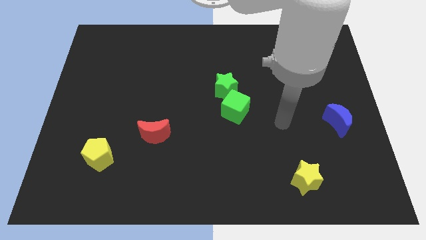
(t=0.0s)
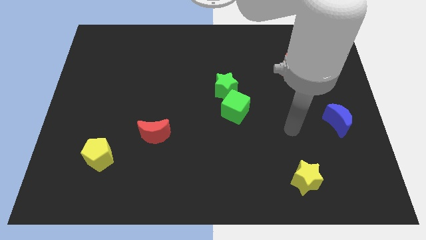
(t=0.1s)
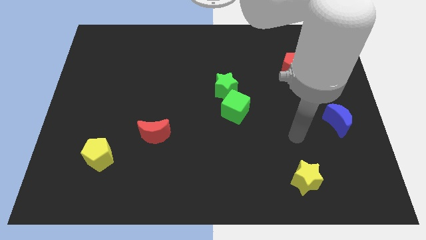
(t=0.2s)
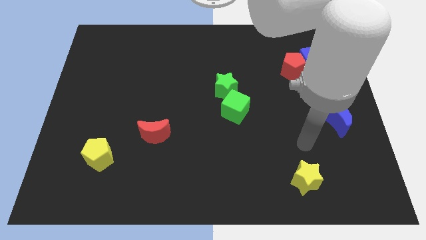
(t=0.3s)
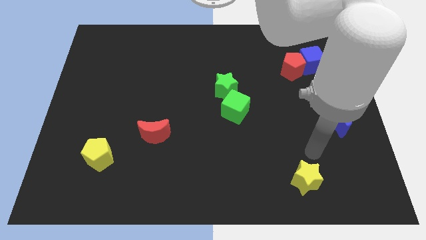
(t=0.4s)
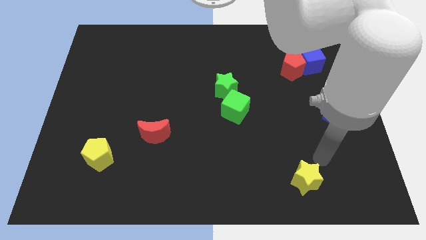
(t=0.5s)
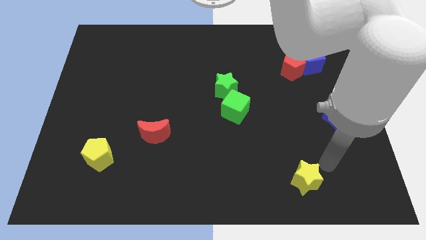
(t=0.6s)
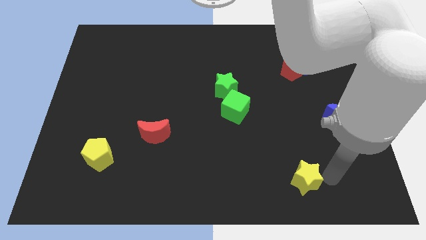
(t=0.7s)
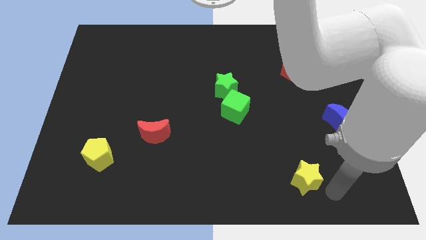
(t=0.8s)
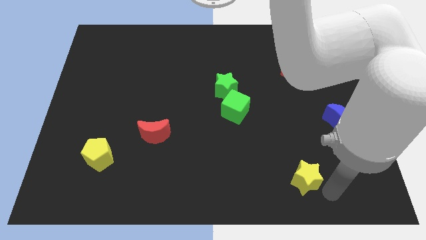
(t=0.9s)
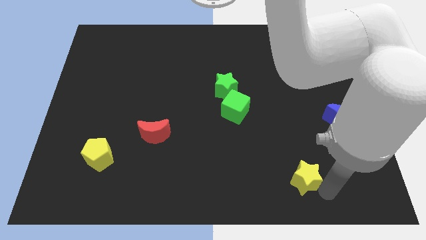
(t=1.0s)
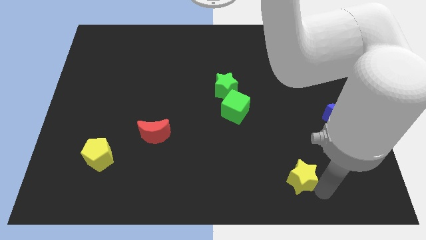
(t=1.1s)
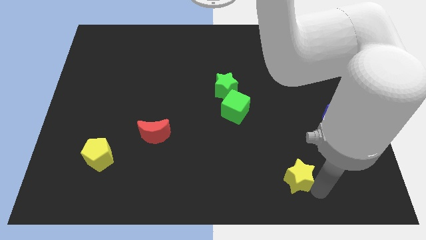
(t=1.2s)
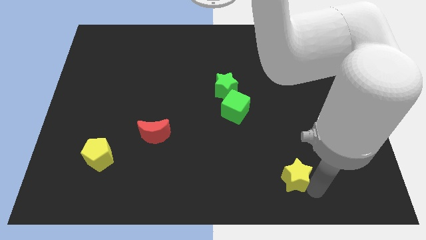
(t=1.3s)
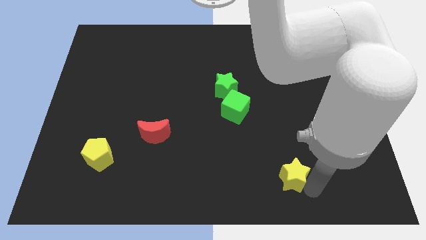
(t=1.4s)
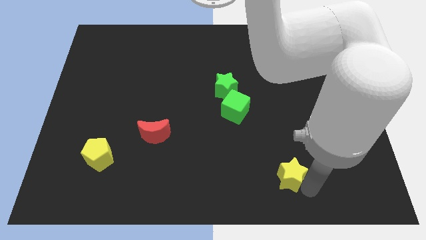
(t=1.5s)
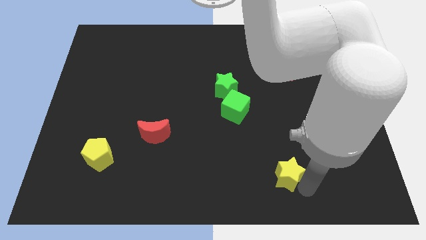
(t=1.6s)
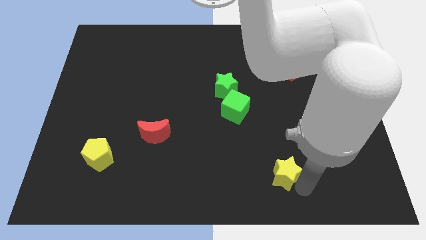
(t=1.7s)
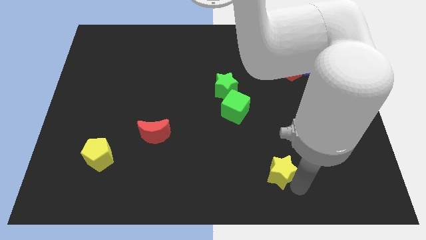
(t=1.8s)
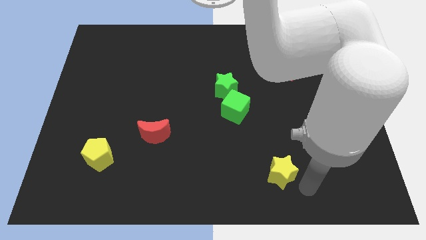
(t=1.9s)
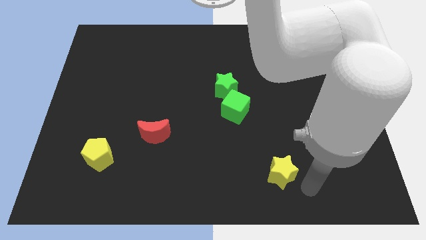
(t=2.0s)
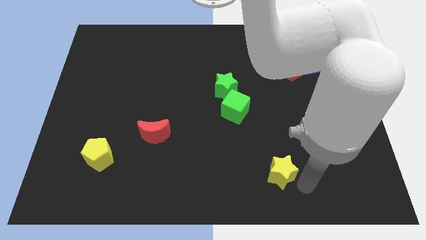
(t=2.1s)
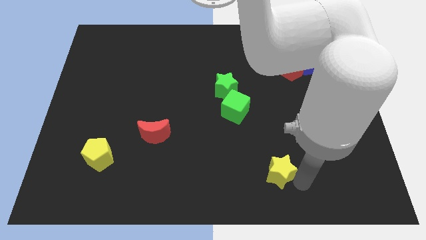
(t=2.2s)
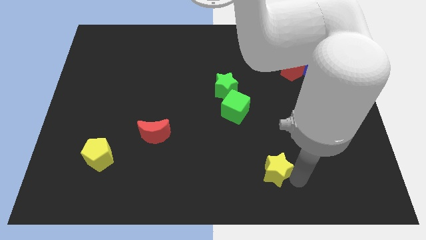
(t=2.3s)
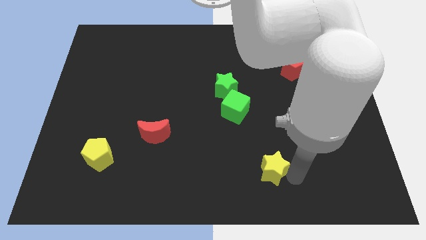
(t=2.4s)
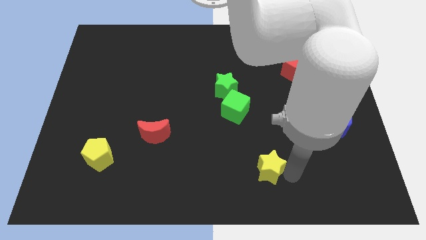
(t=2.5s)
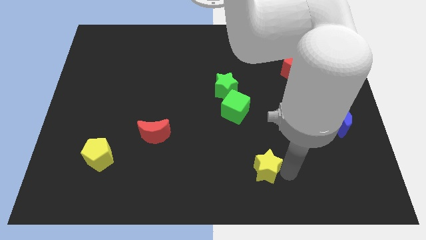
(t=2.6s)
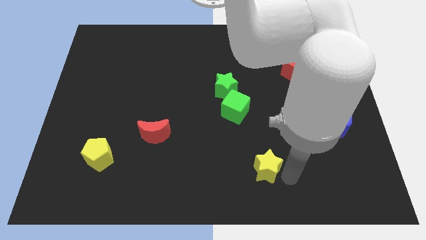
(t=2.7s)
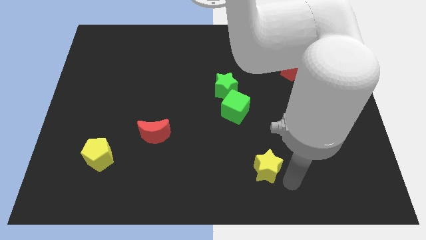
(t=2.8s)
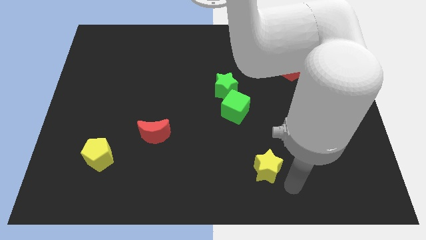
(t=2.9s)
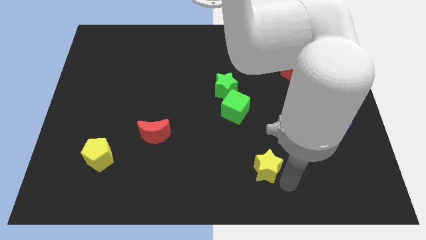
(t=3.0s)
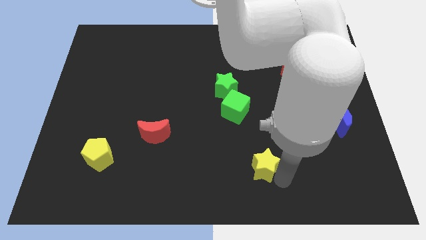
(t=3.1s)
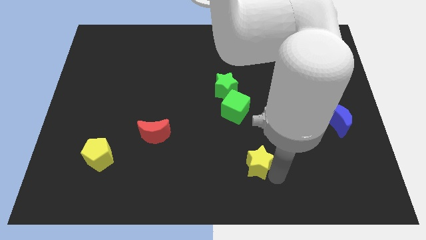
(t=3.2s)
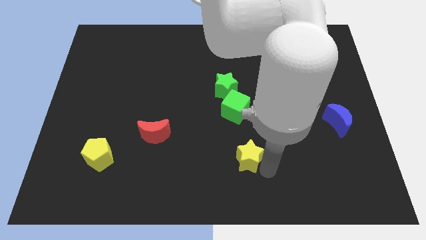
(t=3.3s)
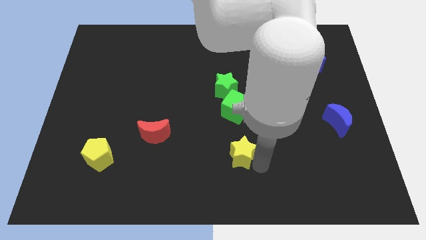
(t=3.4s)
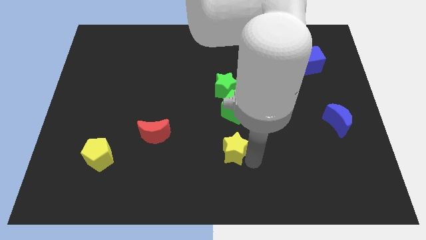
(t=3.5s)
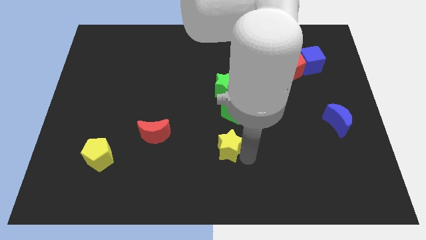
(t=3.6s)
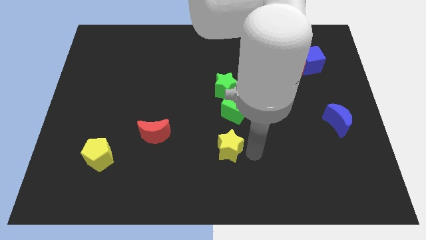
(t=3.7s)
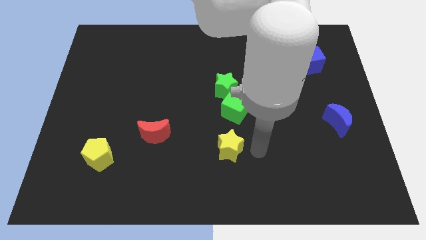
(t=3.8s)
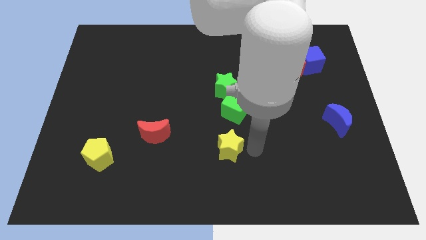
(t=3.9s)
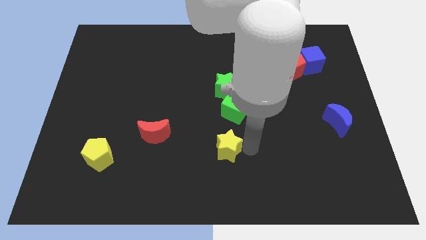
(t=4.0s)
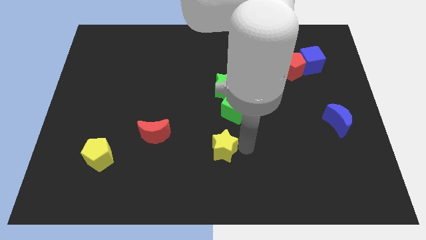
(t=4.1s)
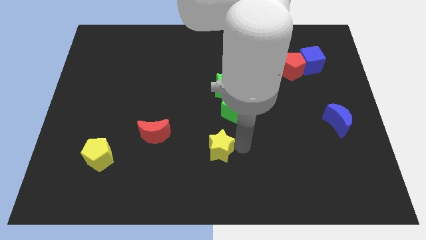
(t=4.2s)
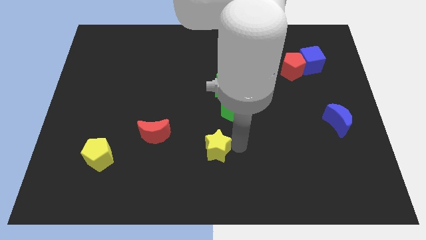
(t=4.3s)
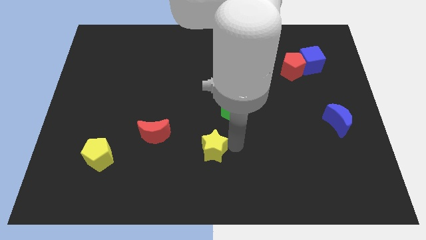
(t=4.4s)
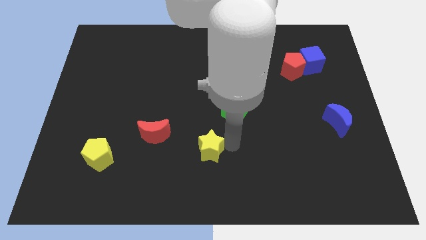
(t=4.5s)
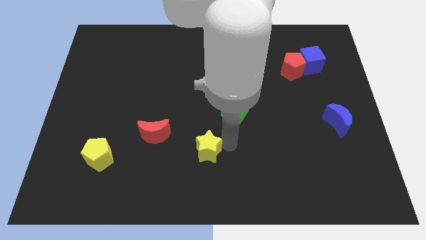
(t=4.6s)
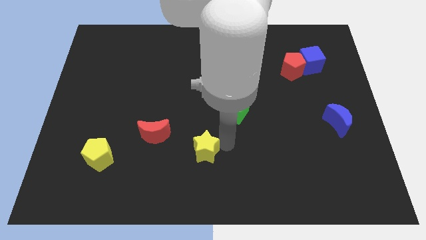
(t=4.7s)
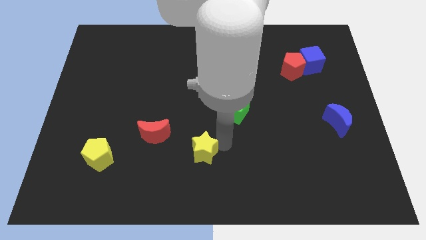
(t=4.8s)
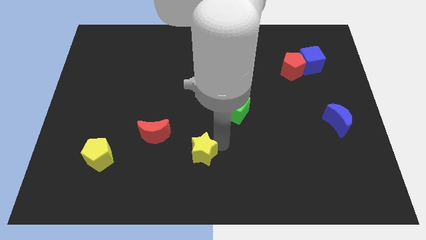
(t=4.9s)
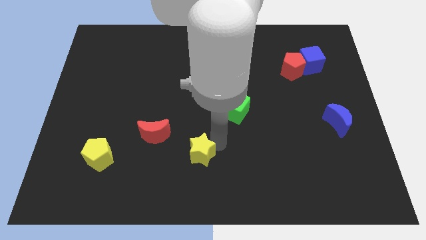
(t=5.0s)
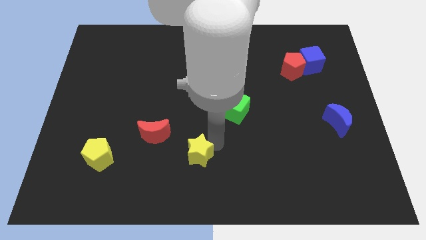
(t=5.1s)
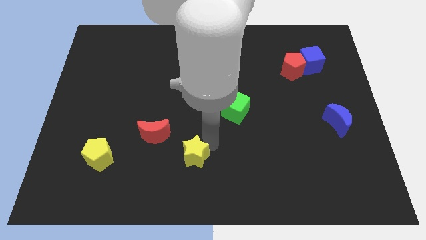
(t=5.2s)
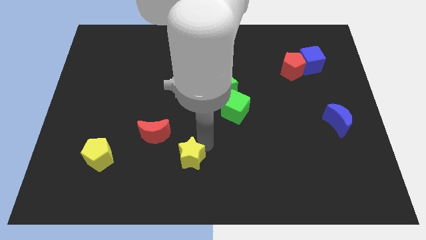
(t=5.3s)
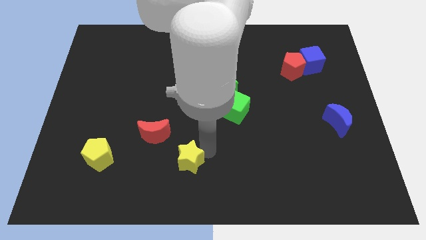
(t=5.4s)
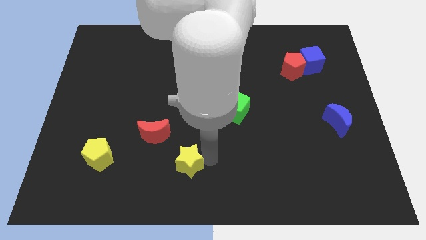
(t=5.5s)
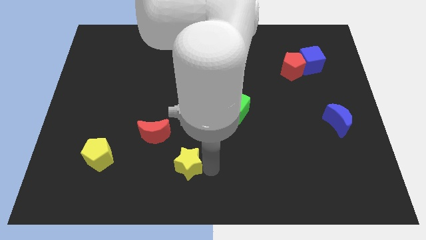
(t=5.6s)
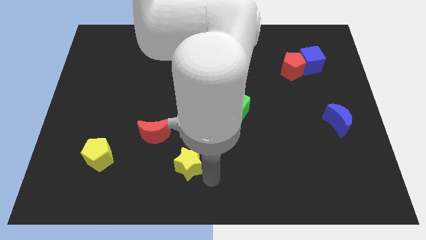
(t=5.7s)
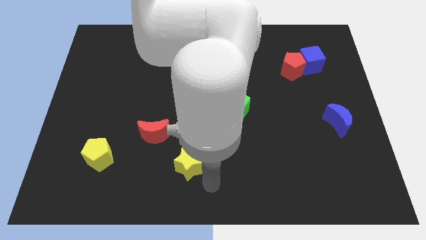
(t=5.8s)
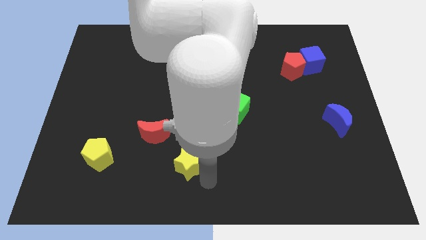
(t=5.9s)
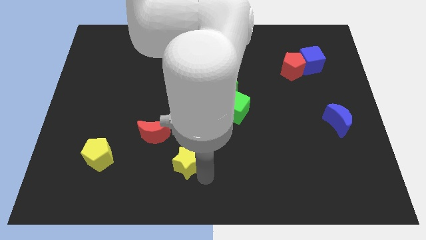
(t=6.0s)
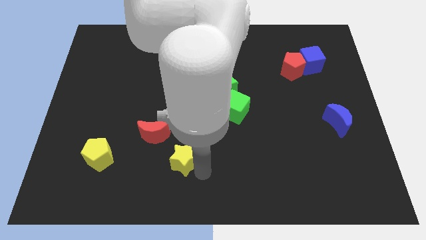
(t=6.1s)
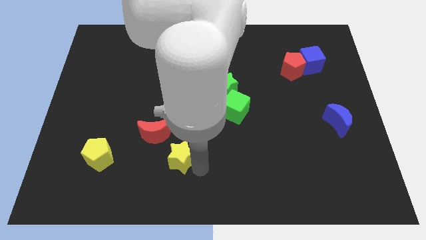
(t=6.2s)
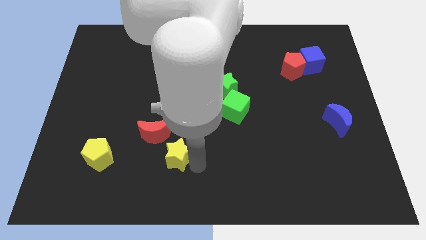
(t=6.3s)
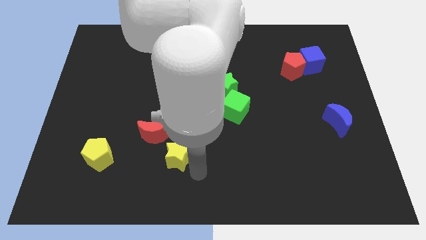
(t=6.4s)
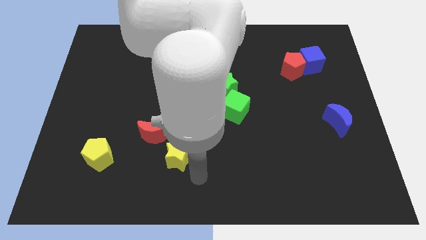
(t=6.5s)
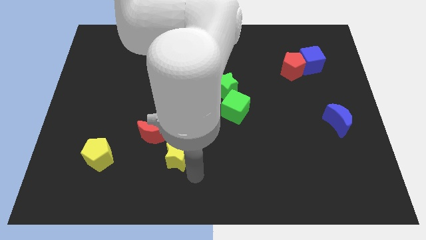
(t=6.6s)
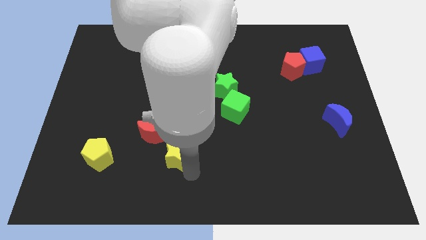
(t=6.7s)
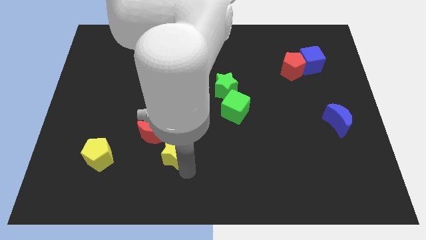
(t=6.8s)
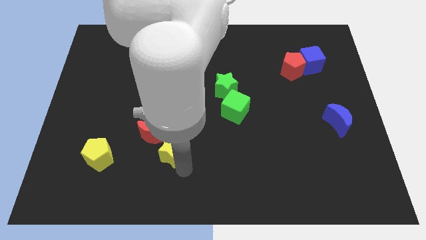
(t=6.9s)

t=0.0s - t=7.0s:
put the yellow star close to the red moon
